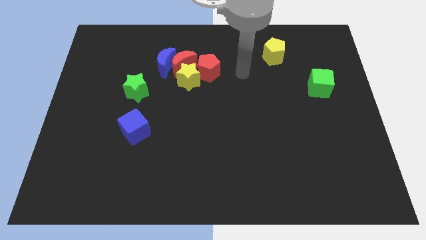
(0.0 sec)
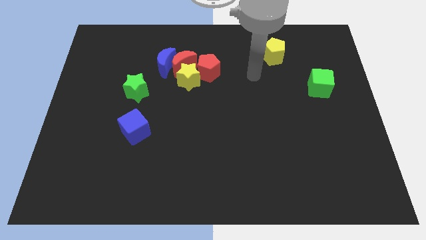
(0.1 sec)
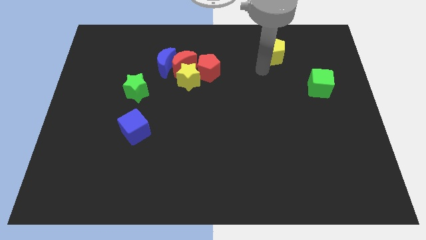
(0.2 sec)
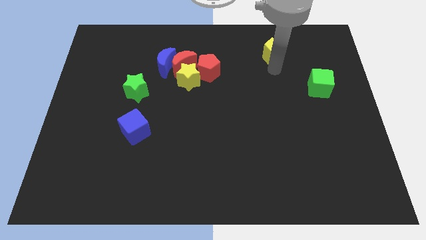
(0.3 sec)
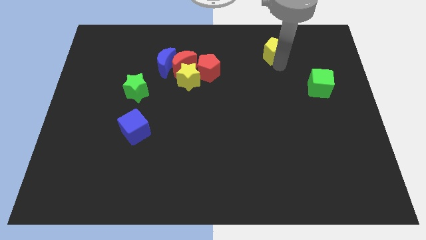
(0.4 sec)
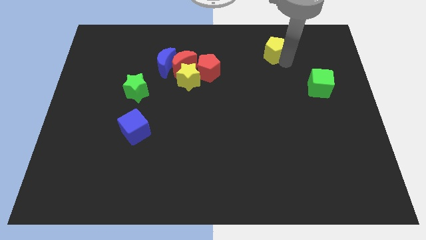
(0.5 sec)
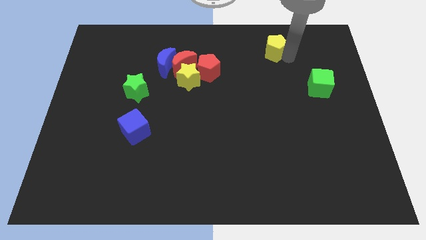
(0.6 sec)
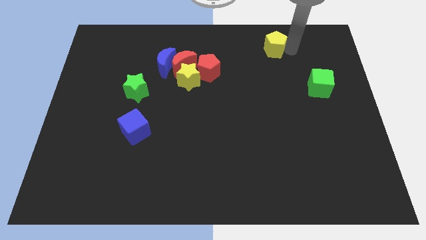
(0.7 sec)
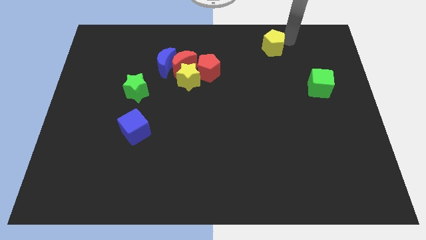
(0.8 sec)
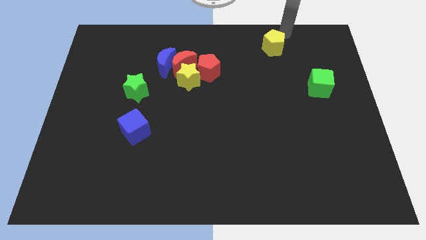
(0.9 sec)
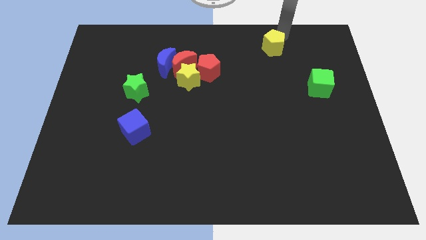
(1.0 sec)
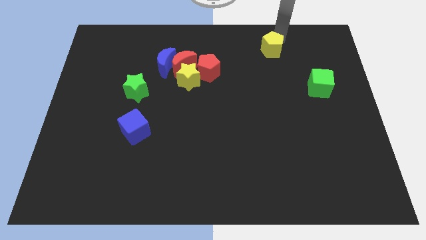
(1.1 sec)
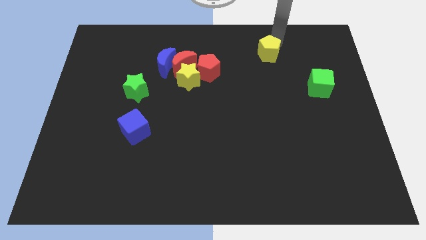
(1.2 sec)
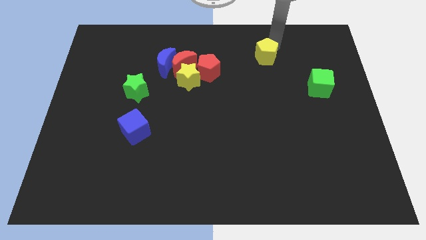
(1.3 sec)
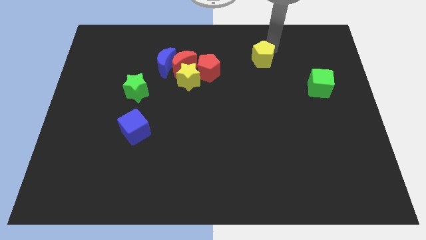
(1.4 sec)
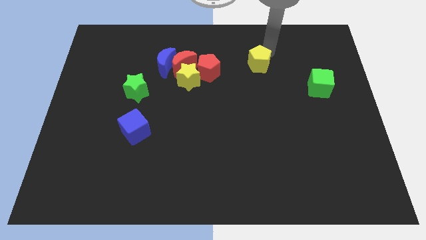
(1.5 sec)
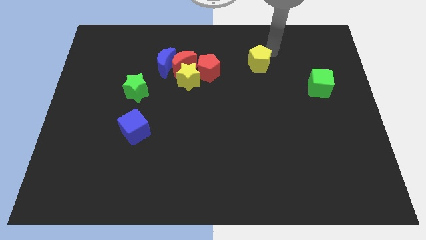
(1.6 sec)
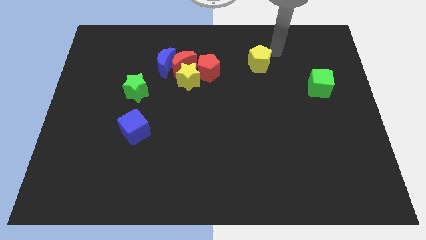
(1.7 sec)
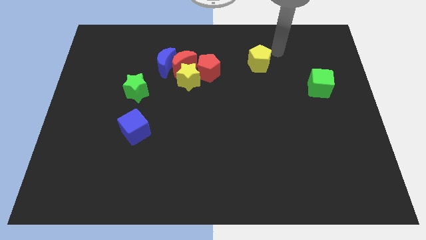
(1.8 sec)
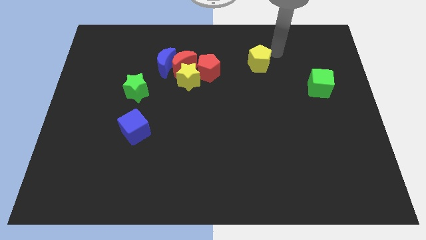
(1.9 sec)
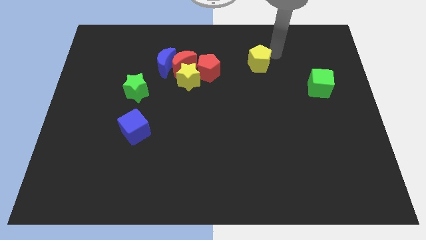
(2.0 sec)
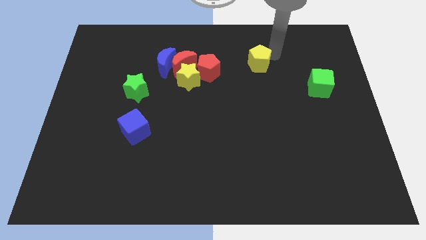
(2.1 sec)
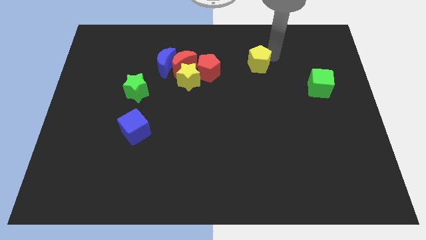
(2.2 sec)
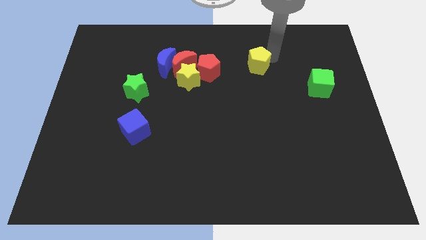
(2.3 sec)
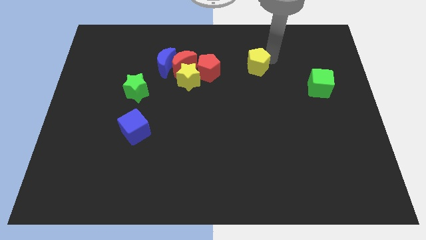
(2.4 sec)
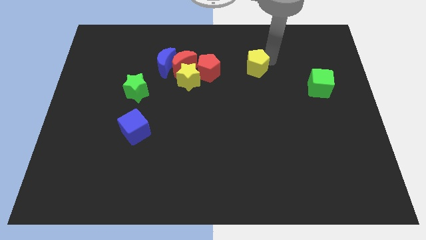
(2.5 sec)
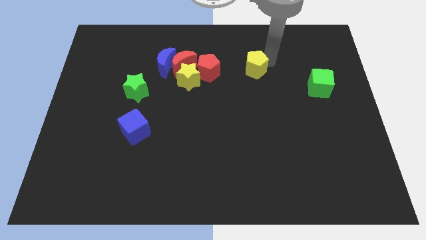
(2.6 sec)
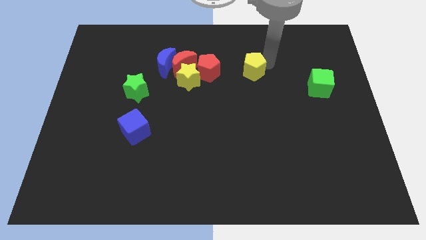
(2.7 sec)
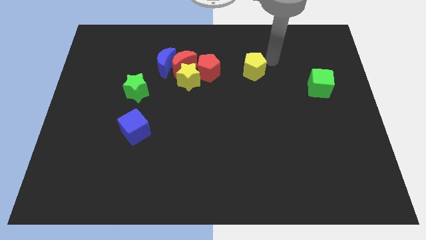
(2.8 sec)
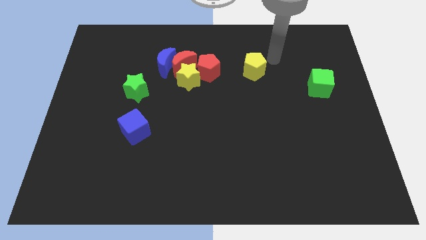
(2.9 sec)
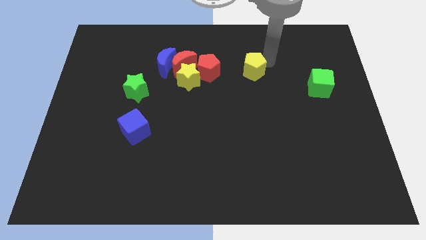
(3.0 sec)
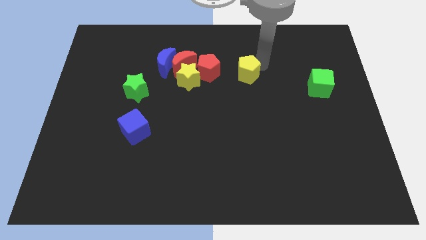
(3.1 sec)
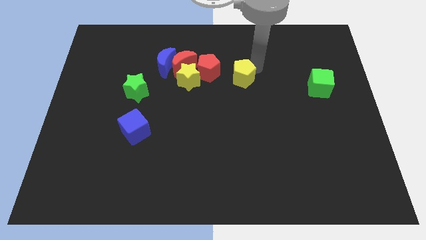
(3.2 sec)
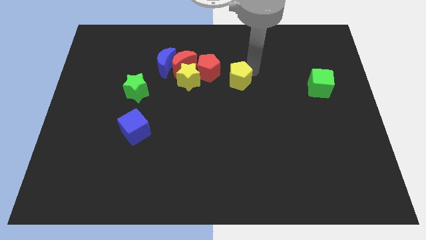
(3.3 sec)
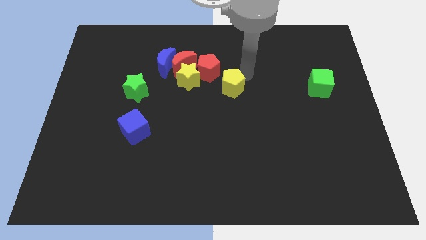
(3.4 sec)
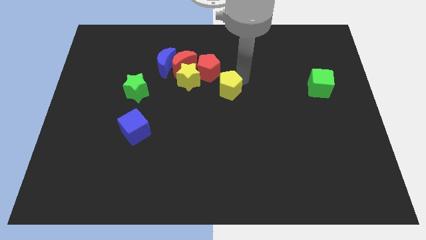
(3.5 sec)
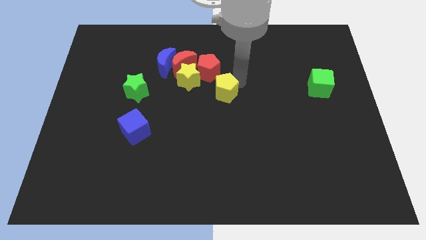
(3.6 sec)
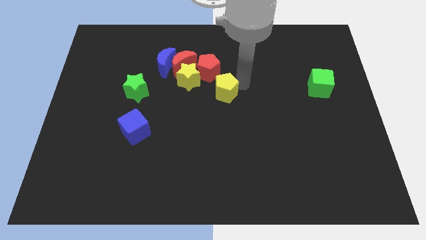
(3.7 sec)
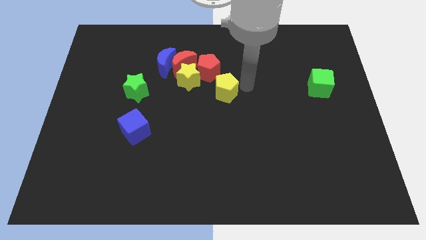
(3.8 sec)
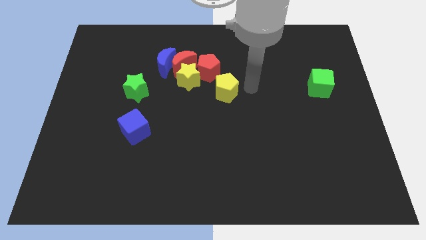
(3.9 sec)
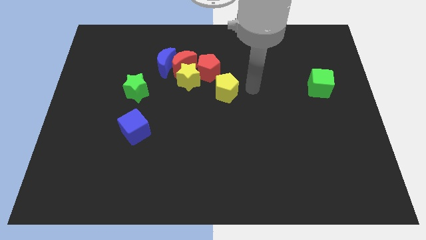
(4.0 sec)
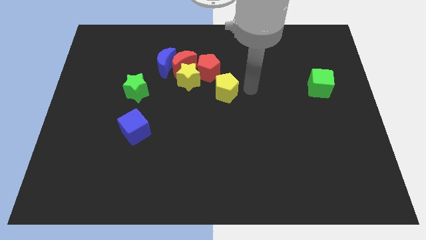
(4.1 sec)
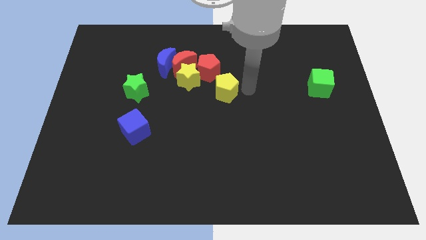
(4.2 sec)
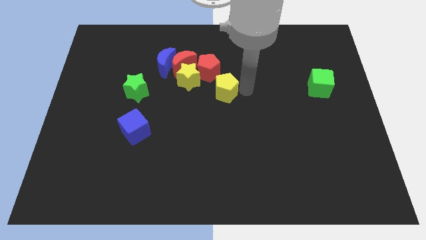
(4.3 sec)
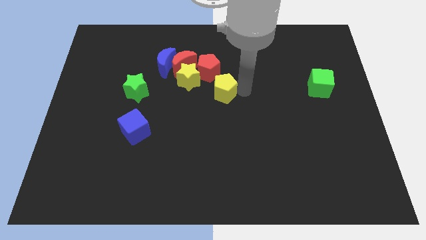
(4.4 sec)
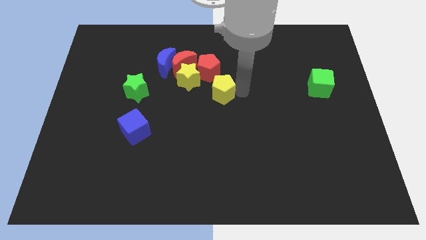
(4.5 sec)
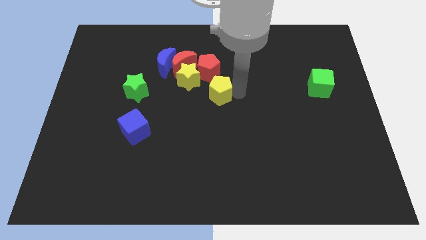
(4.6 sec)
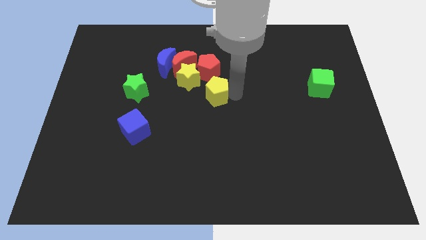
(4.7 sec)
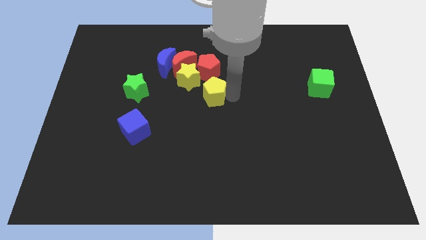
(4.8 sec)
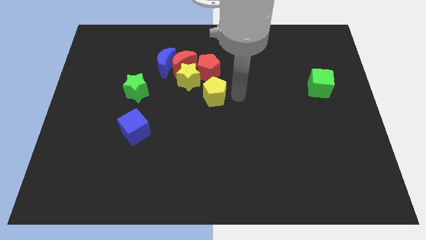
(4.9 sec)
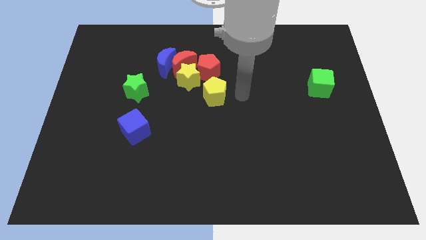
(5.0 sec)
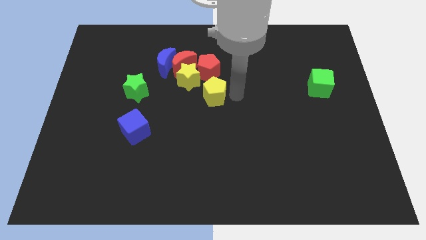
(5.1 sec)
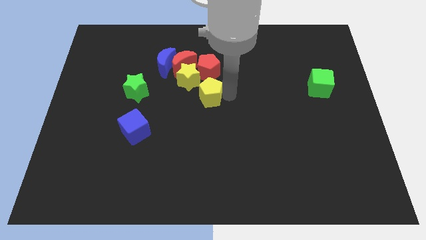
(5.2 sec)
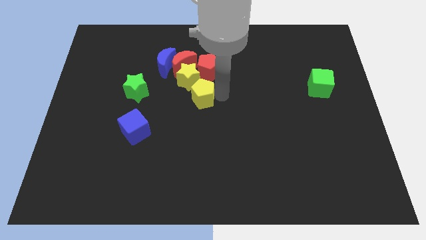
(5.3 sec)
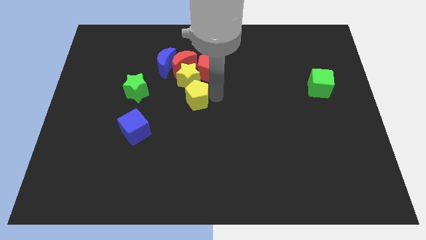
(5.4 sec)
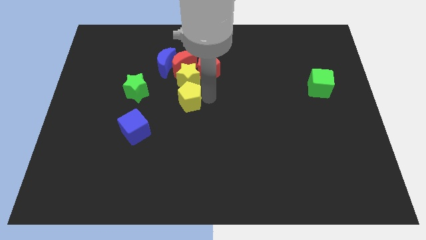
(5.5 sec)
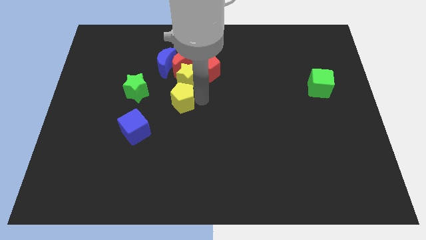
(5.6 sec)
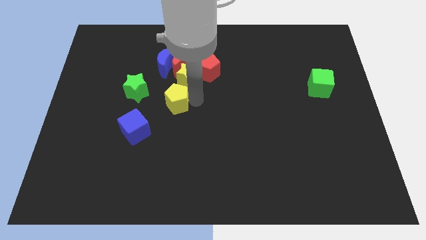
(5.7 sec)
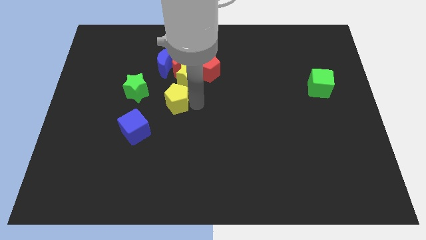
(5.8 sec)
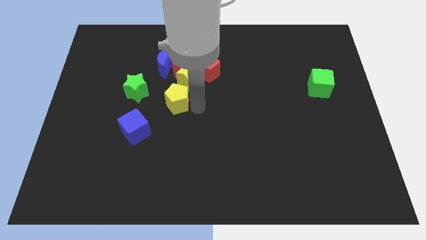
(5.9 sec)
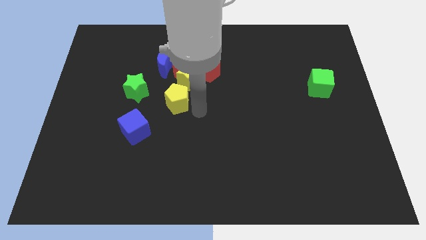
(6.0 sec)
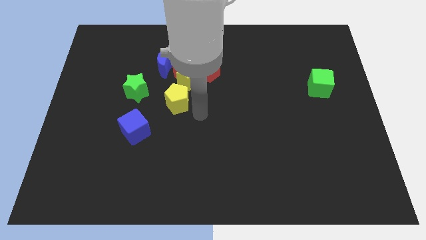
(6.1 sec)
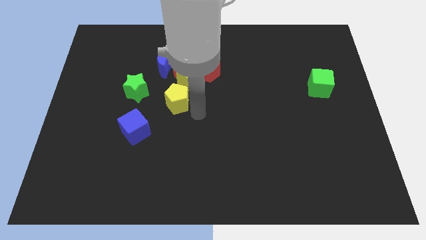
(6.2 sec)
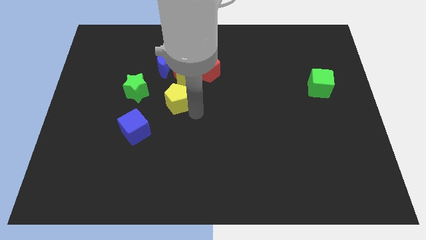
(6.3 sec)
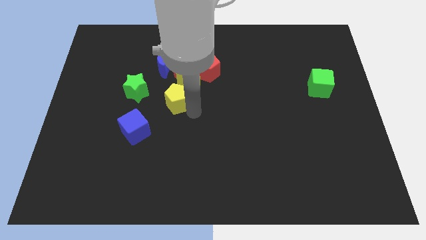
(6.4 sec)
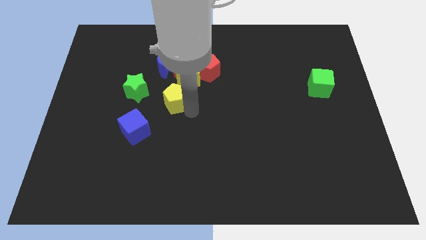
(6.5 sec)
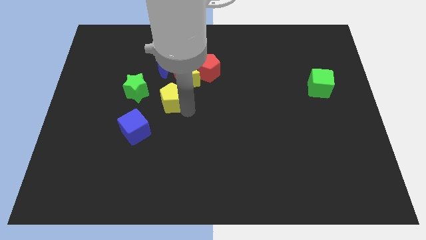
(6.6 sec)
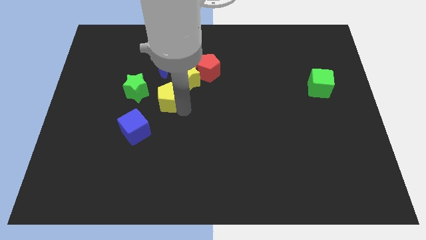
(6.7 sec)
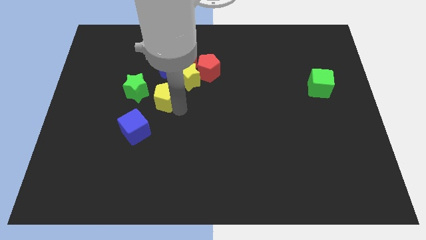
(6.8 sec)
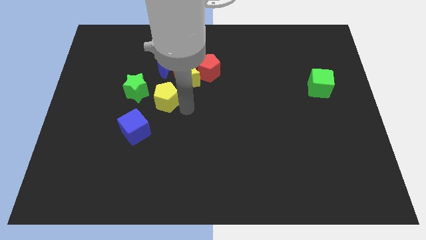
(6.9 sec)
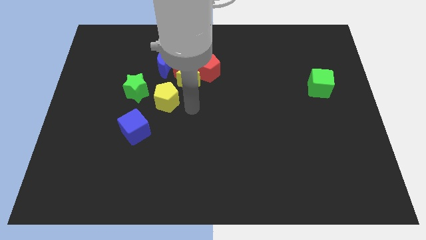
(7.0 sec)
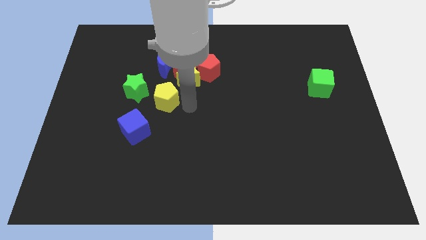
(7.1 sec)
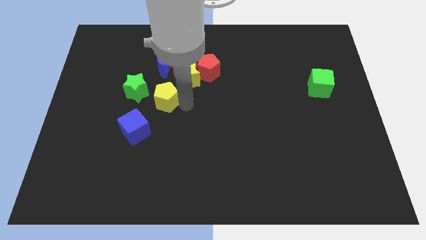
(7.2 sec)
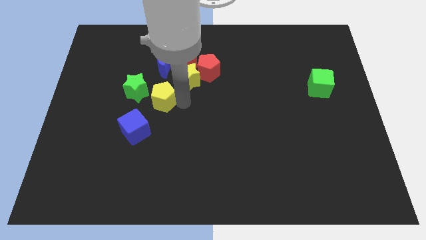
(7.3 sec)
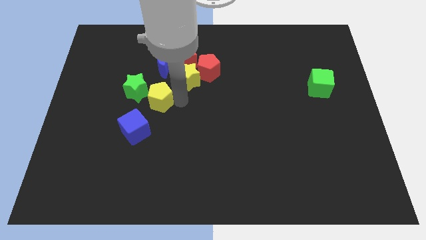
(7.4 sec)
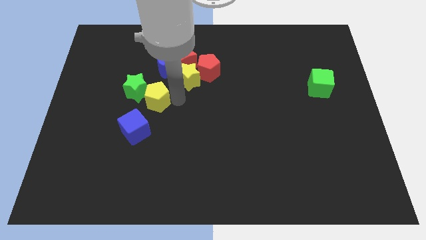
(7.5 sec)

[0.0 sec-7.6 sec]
move the yellow pentagon to the green star
